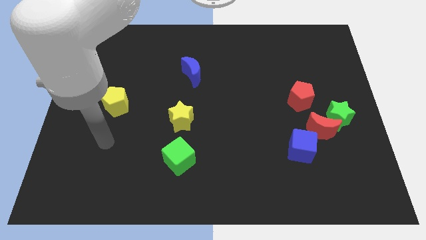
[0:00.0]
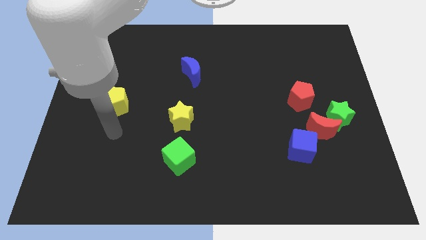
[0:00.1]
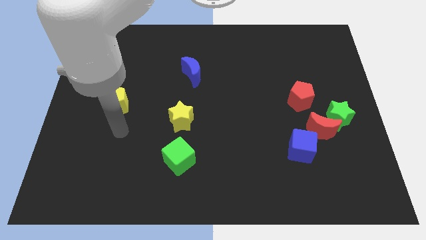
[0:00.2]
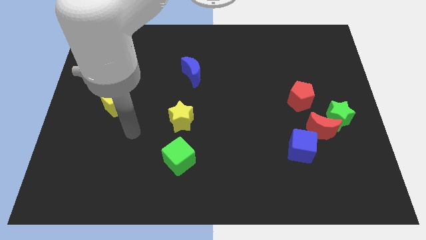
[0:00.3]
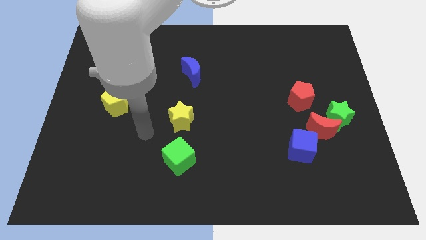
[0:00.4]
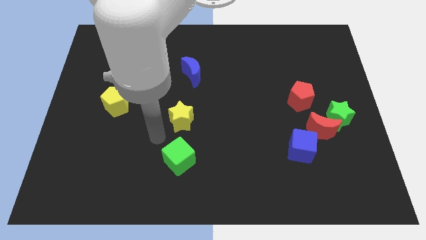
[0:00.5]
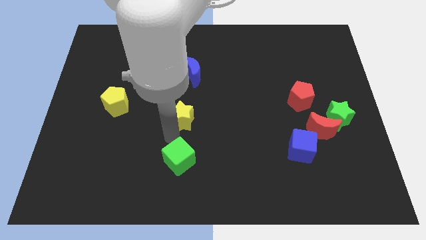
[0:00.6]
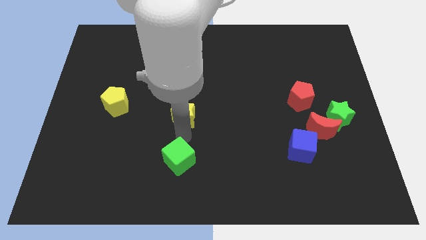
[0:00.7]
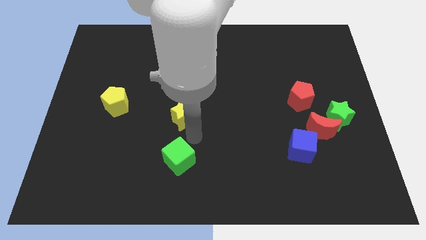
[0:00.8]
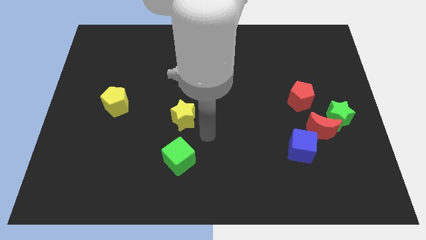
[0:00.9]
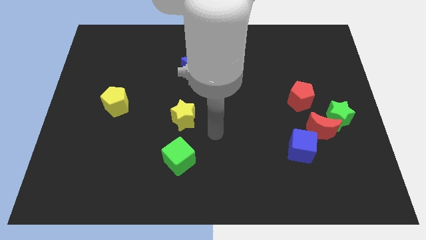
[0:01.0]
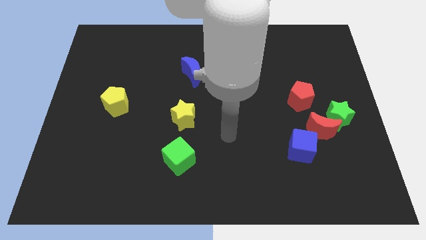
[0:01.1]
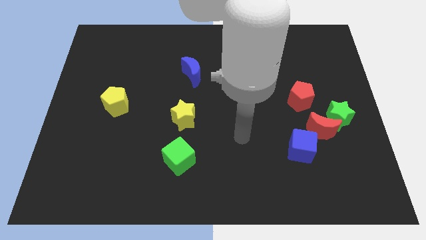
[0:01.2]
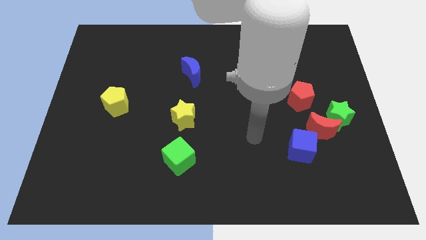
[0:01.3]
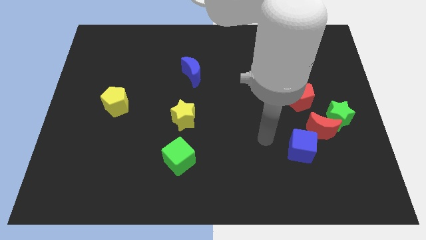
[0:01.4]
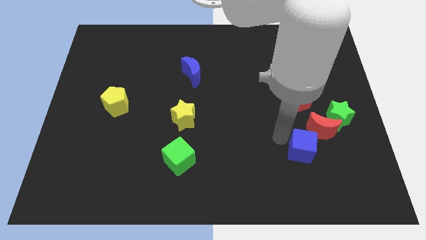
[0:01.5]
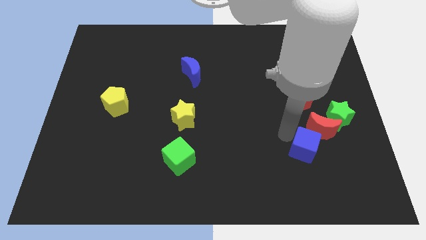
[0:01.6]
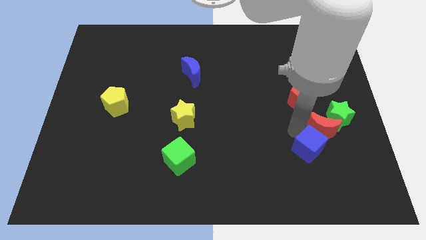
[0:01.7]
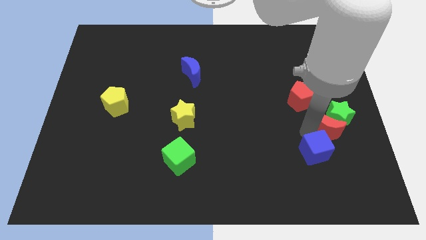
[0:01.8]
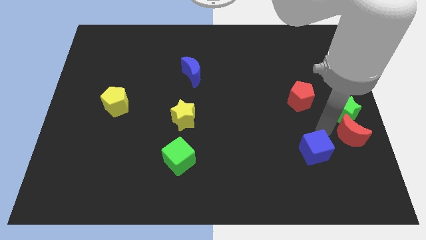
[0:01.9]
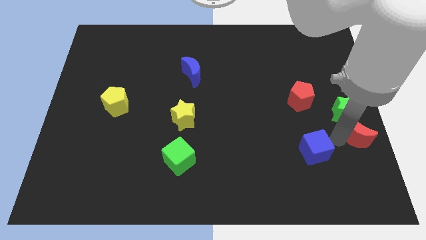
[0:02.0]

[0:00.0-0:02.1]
pull the blue cube apart from the red moon

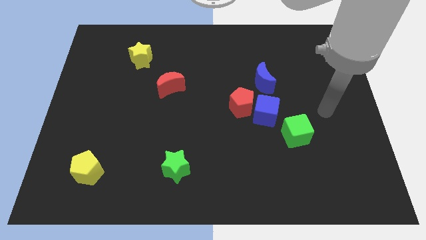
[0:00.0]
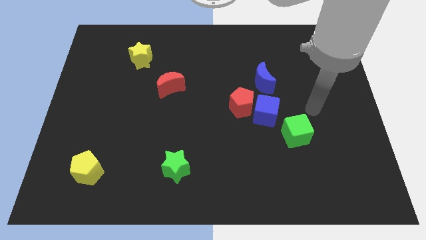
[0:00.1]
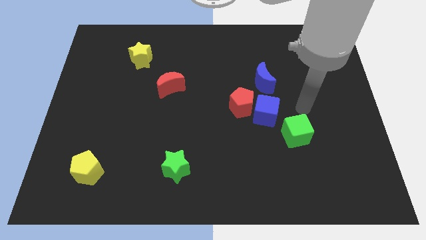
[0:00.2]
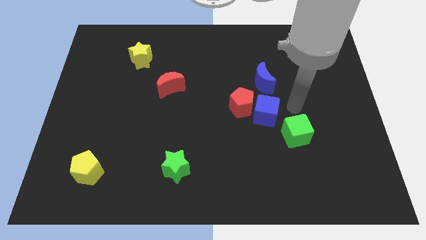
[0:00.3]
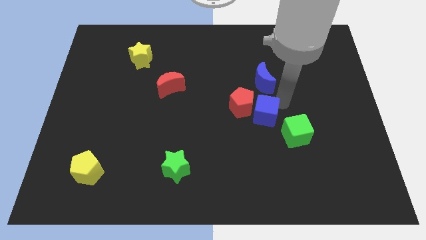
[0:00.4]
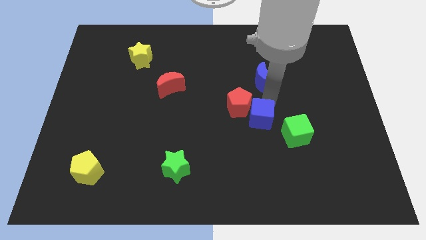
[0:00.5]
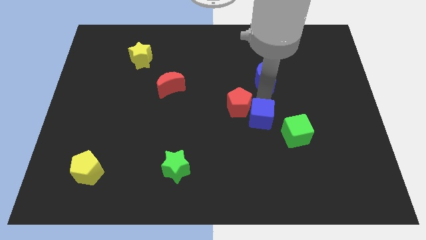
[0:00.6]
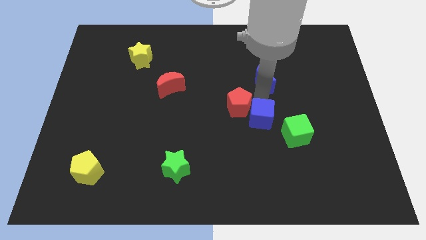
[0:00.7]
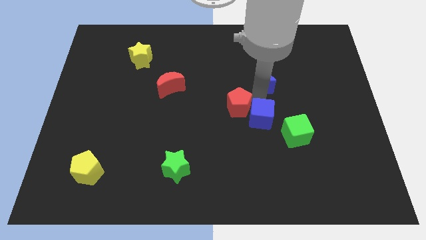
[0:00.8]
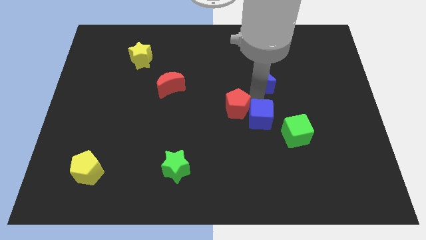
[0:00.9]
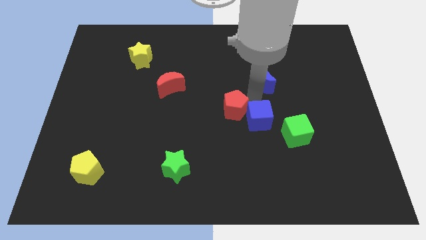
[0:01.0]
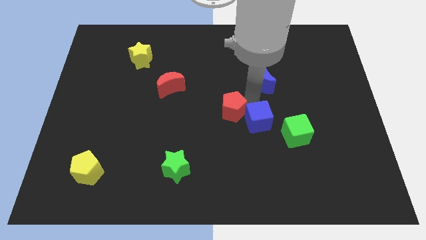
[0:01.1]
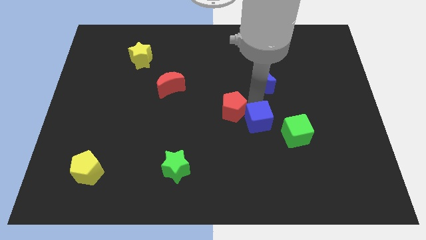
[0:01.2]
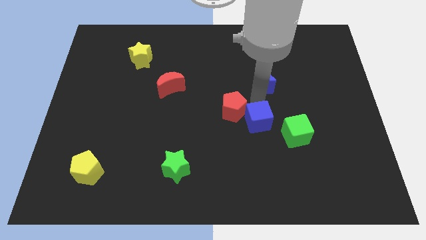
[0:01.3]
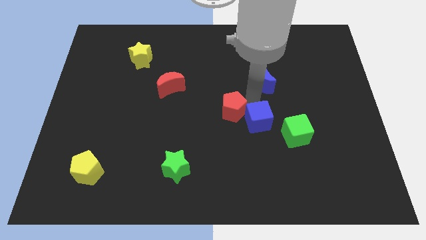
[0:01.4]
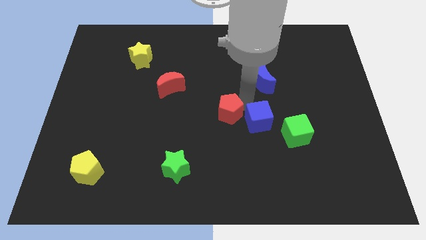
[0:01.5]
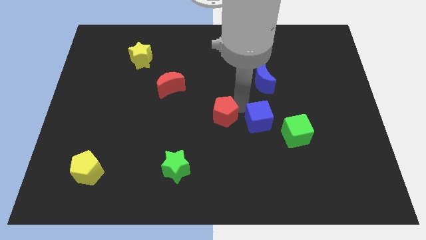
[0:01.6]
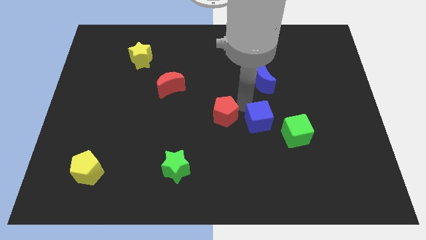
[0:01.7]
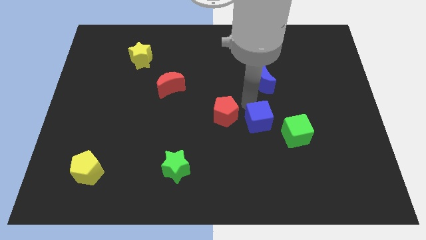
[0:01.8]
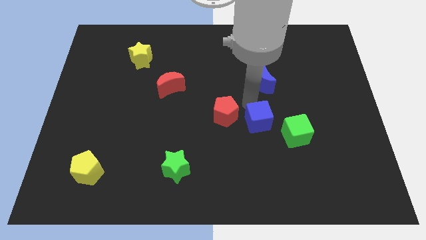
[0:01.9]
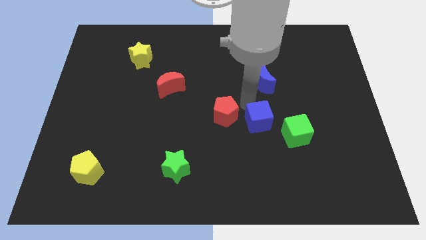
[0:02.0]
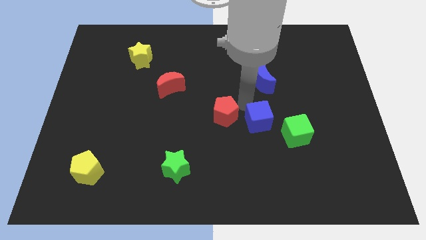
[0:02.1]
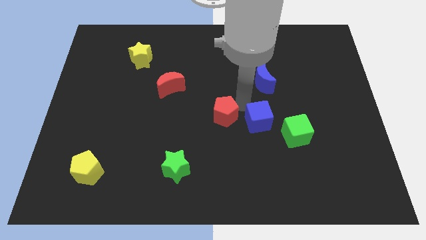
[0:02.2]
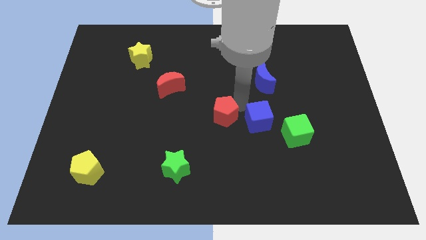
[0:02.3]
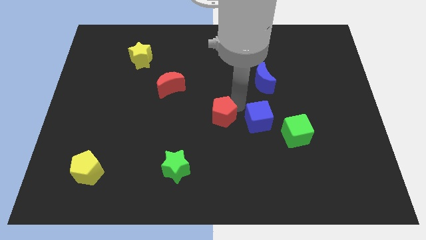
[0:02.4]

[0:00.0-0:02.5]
pull the red pentagon apart from the blue cube and blue moon

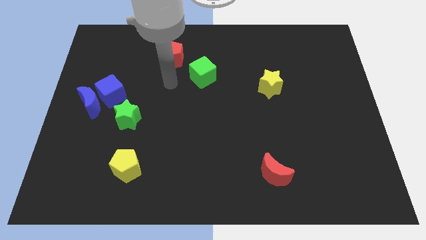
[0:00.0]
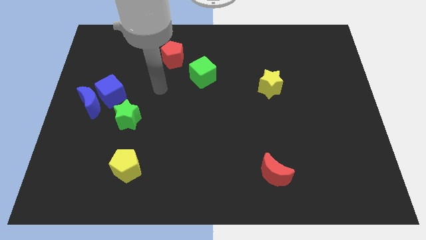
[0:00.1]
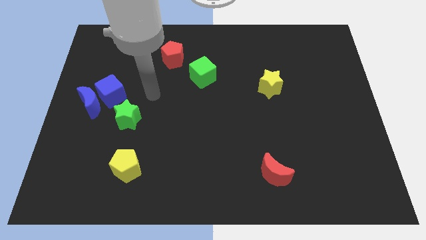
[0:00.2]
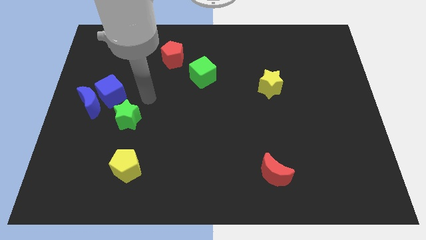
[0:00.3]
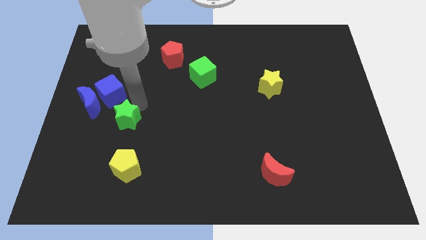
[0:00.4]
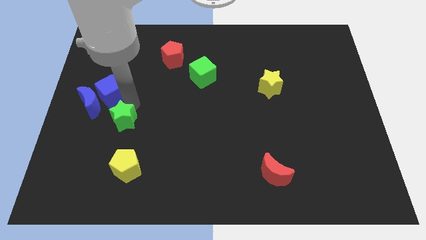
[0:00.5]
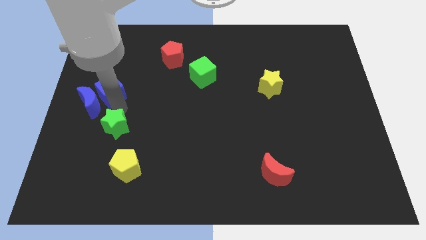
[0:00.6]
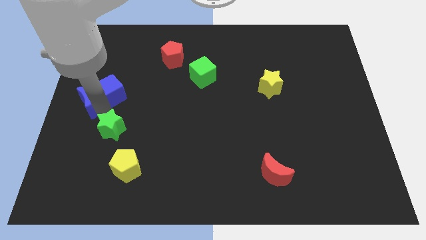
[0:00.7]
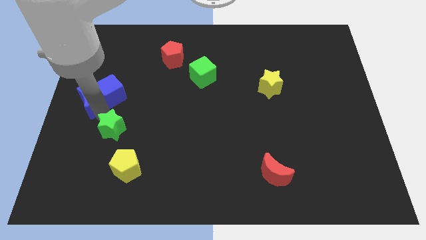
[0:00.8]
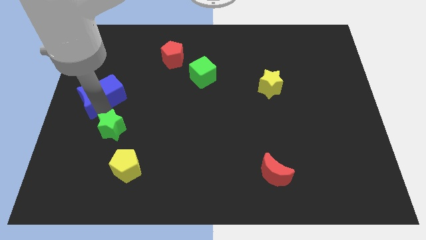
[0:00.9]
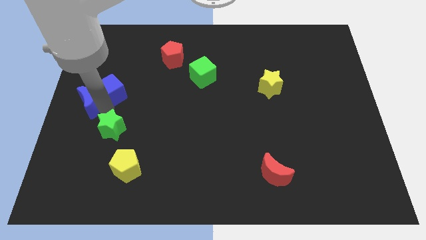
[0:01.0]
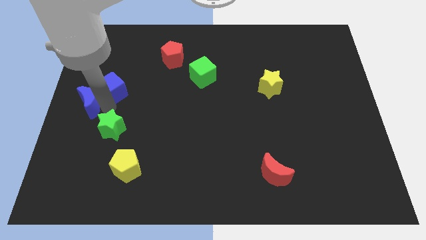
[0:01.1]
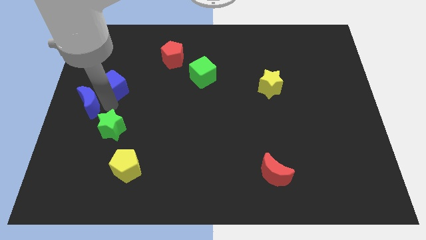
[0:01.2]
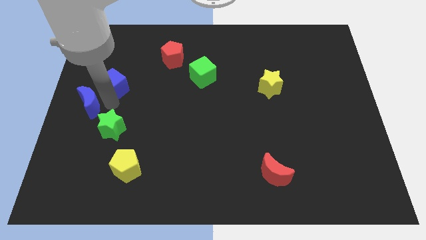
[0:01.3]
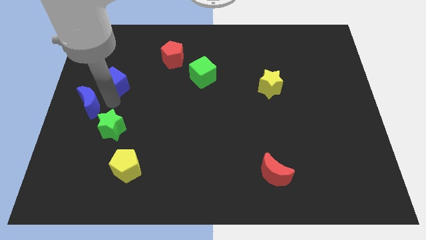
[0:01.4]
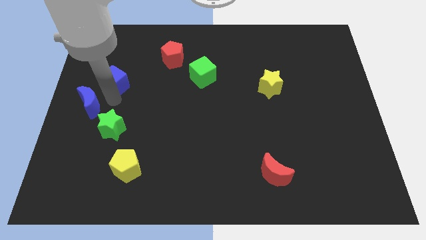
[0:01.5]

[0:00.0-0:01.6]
separate the blue cube from the blue moon and green star

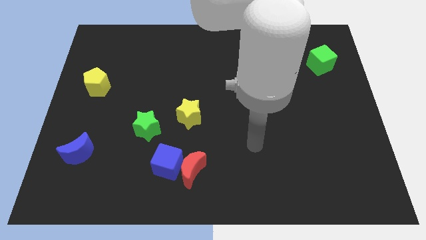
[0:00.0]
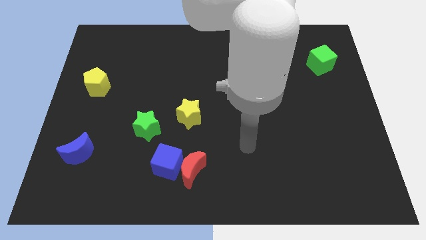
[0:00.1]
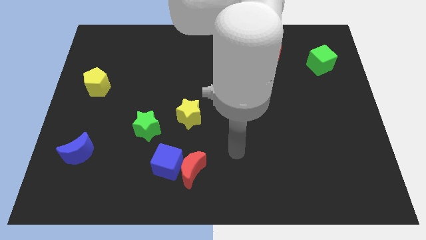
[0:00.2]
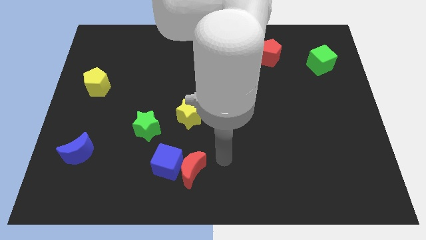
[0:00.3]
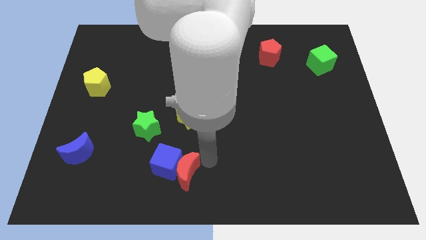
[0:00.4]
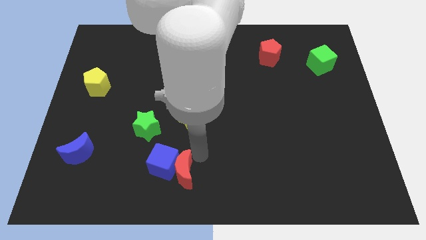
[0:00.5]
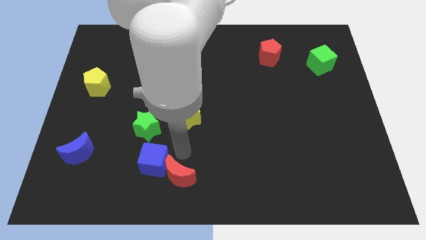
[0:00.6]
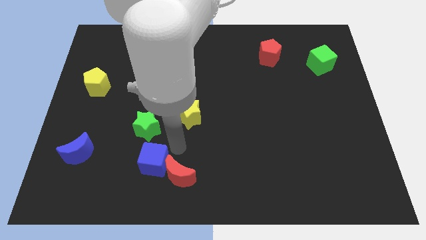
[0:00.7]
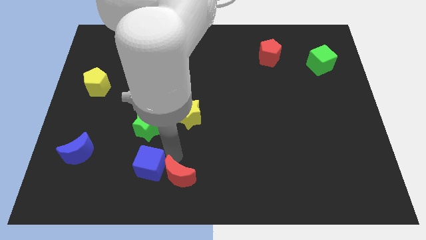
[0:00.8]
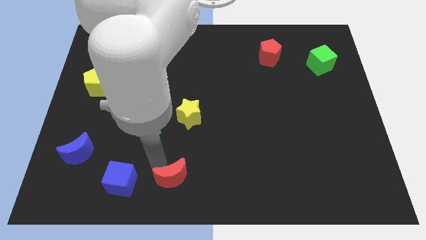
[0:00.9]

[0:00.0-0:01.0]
separate the red moon from the blue cube

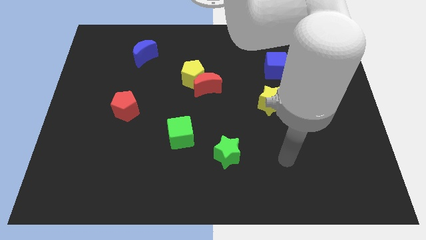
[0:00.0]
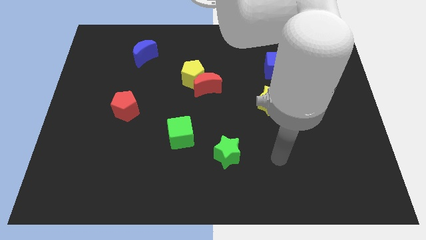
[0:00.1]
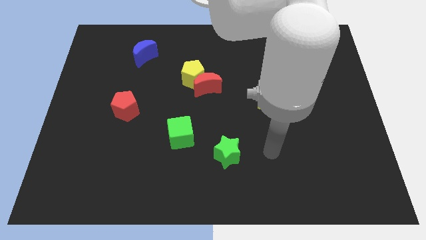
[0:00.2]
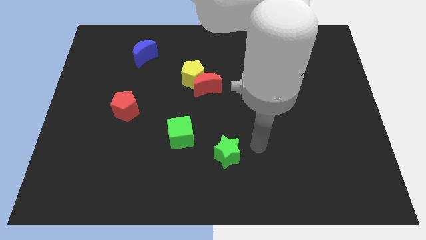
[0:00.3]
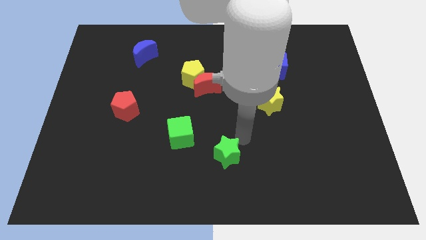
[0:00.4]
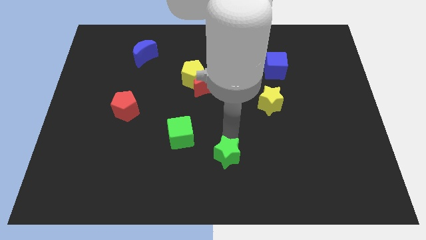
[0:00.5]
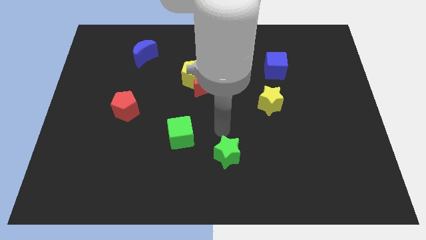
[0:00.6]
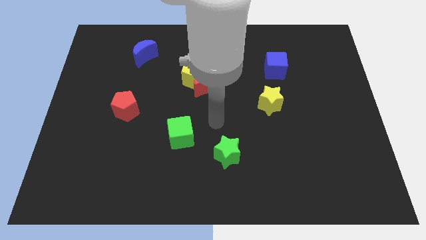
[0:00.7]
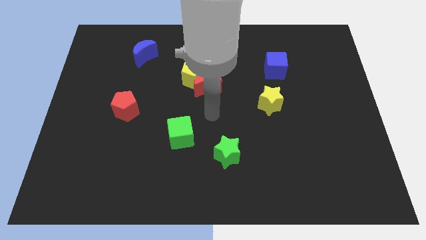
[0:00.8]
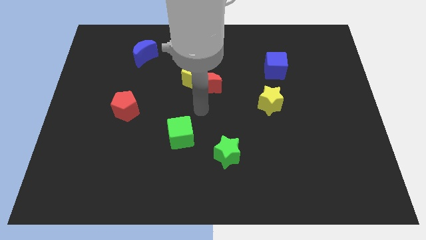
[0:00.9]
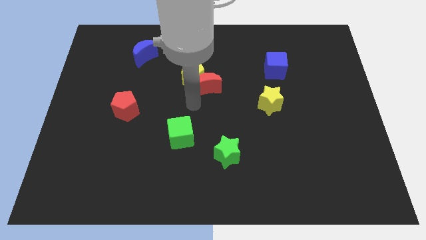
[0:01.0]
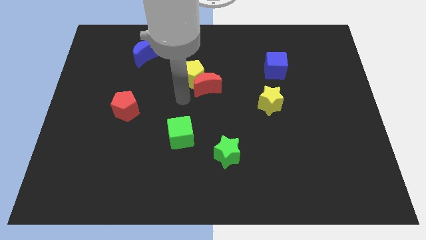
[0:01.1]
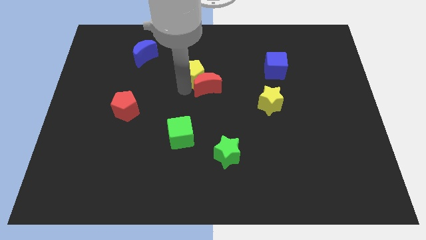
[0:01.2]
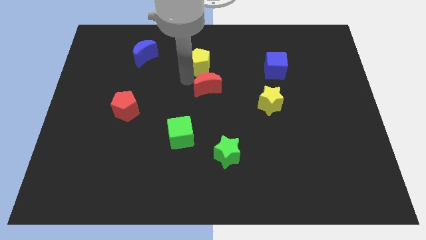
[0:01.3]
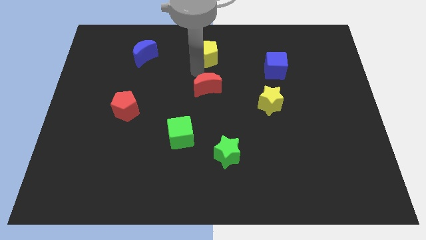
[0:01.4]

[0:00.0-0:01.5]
pull the red moon apart from the yellow pentagon

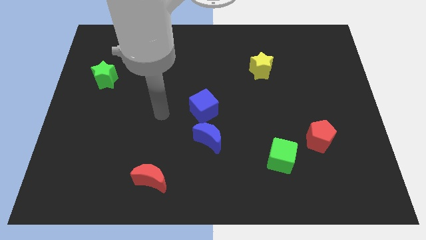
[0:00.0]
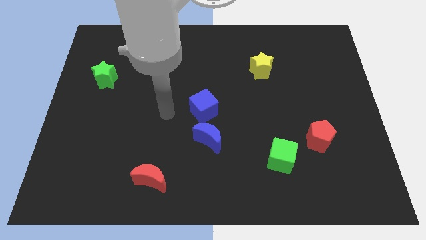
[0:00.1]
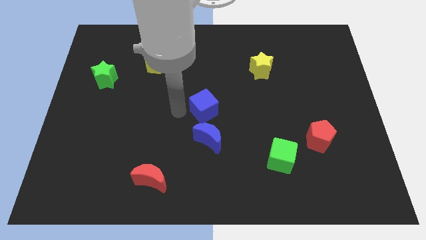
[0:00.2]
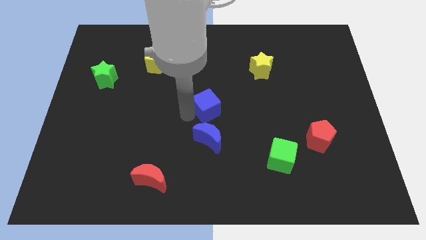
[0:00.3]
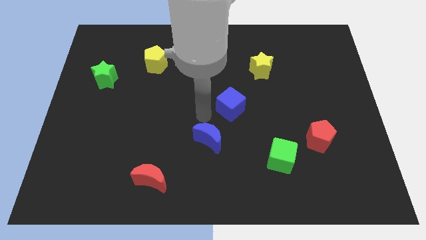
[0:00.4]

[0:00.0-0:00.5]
move the blue moon away from the blue cube

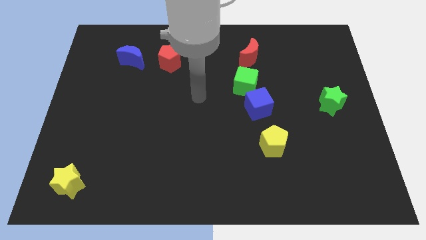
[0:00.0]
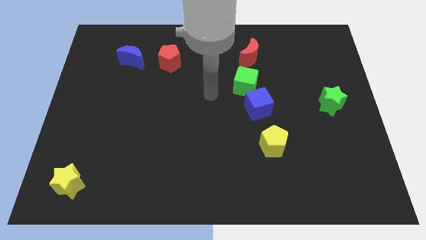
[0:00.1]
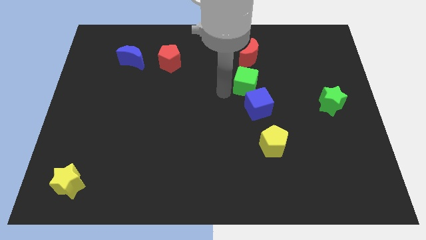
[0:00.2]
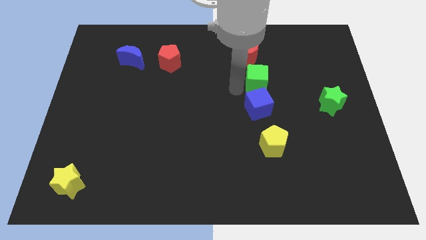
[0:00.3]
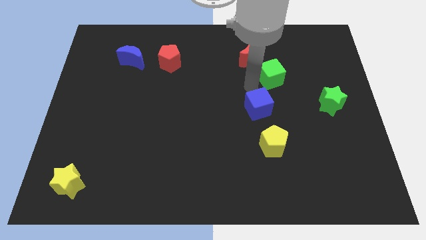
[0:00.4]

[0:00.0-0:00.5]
move the blue cube away from the green cube
